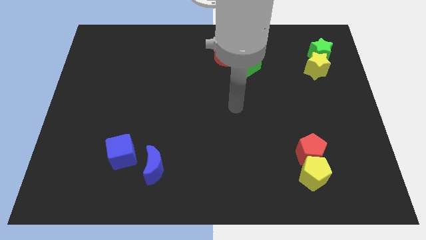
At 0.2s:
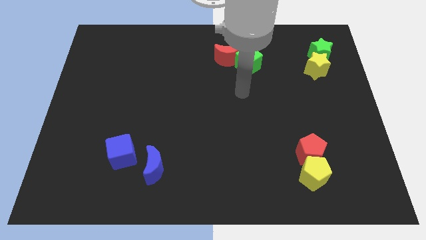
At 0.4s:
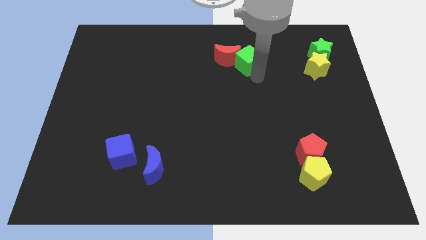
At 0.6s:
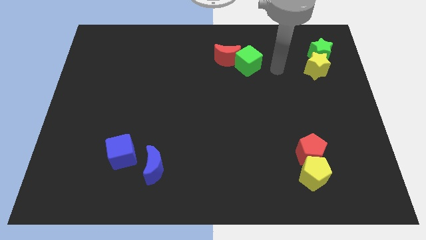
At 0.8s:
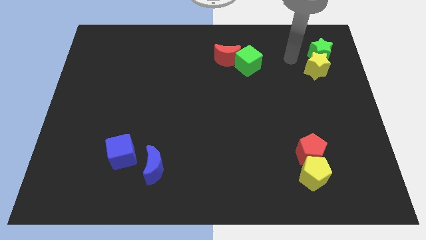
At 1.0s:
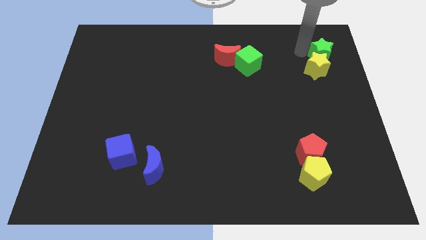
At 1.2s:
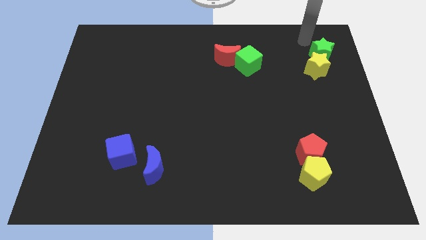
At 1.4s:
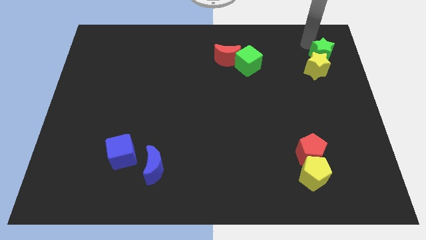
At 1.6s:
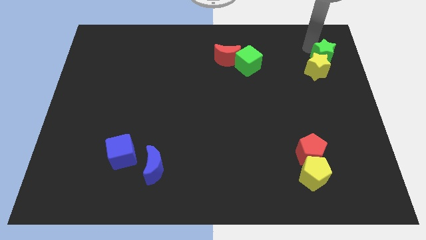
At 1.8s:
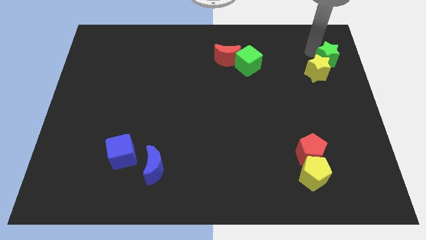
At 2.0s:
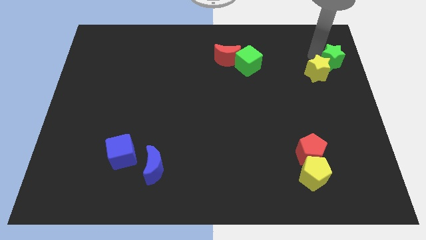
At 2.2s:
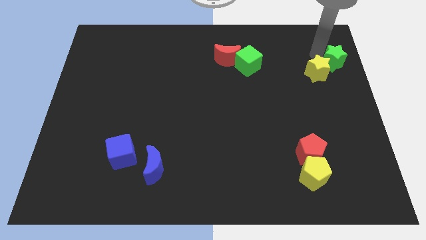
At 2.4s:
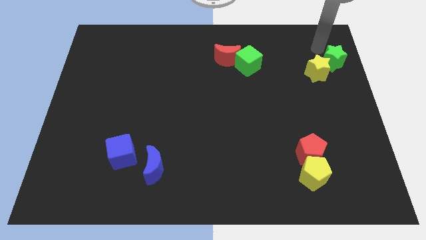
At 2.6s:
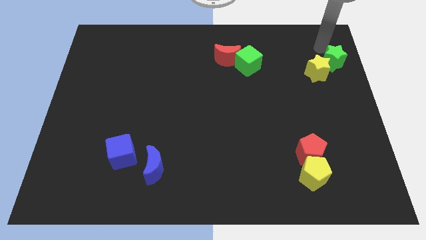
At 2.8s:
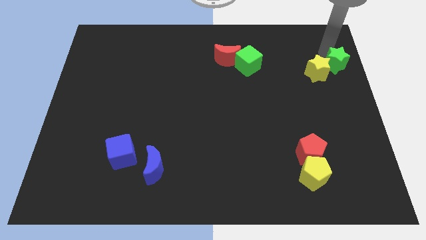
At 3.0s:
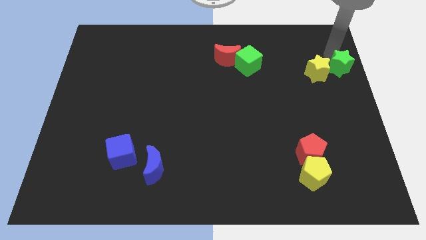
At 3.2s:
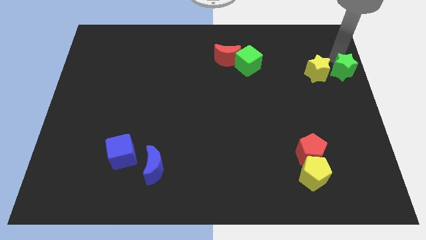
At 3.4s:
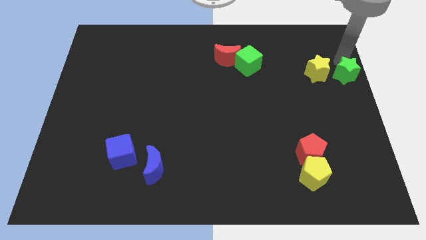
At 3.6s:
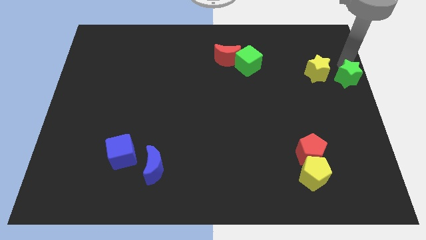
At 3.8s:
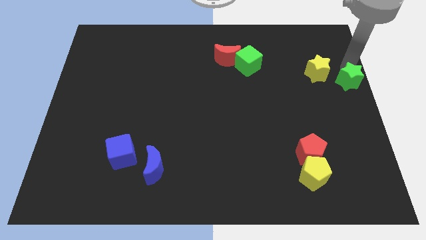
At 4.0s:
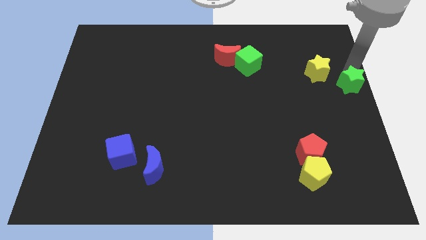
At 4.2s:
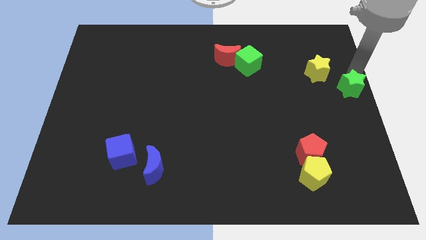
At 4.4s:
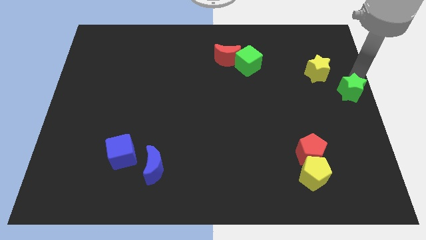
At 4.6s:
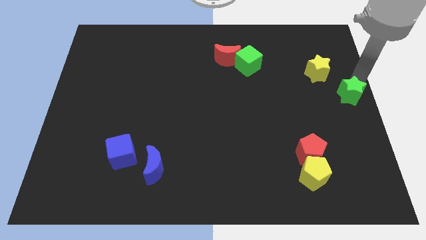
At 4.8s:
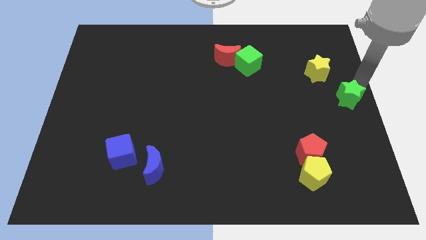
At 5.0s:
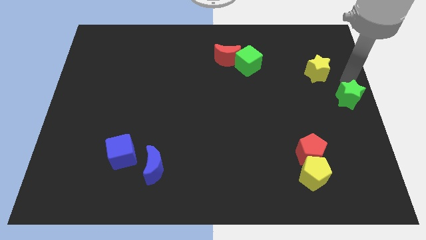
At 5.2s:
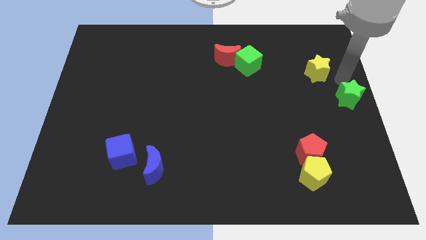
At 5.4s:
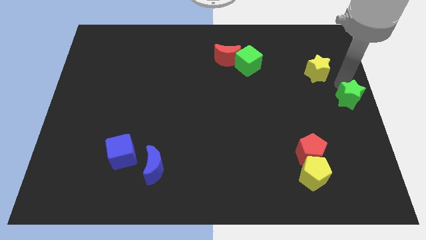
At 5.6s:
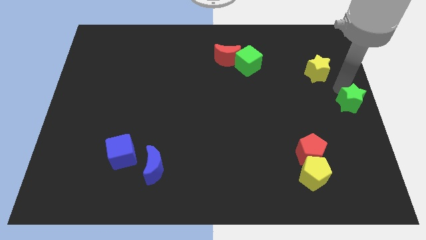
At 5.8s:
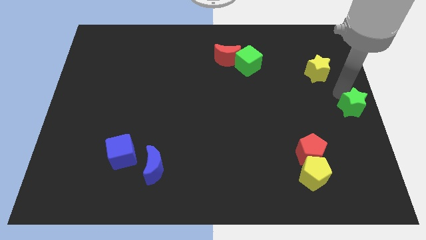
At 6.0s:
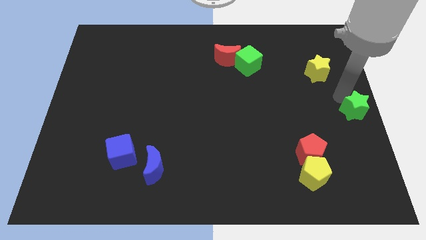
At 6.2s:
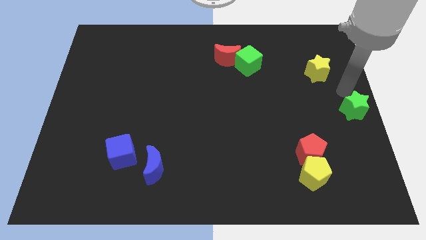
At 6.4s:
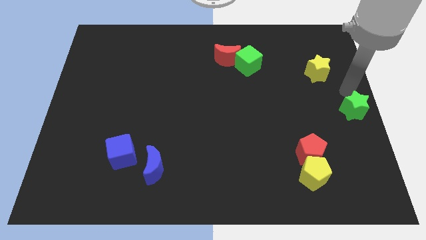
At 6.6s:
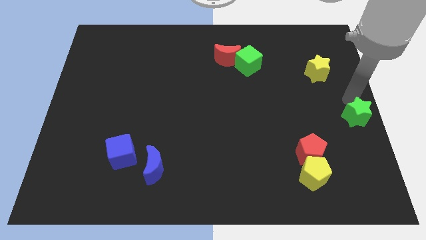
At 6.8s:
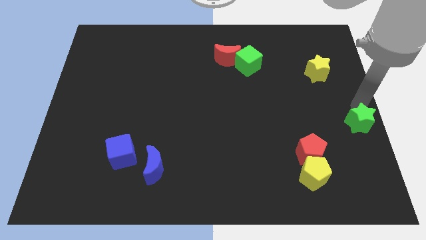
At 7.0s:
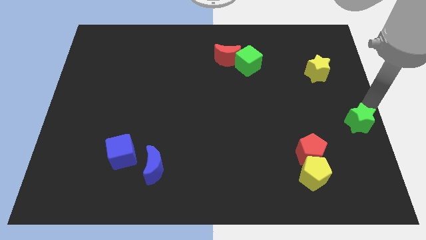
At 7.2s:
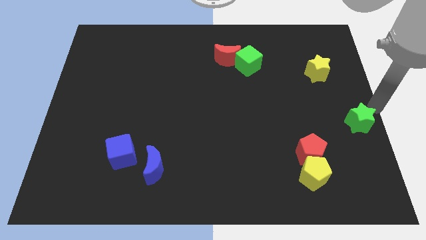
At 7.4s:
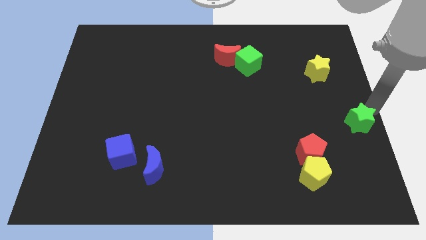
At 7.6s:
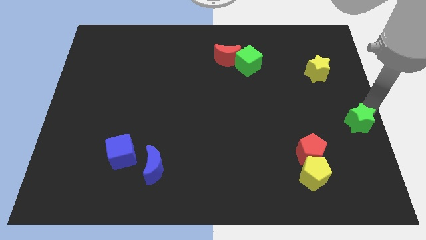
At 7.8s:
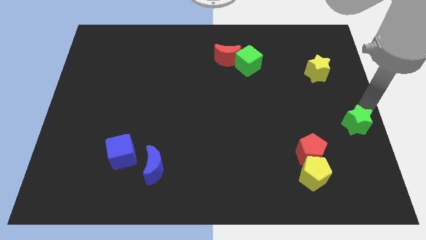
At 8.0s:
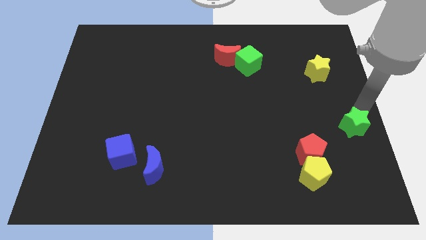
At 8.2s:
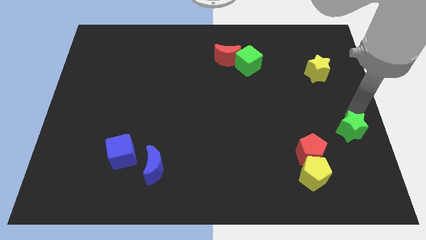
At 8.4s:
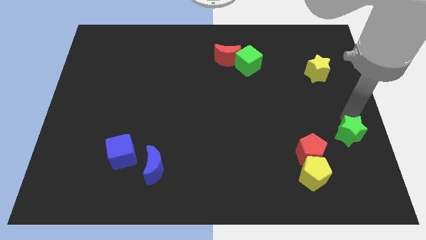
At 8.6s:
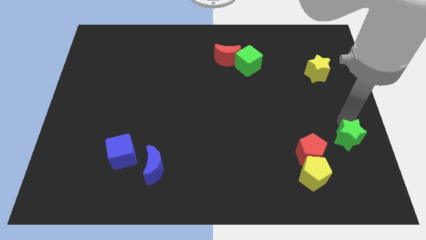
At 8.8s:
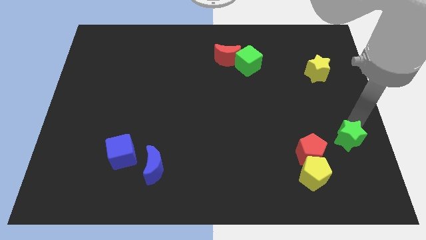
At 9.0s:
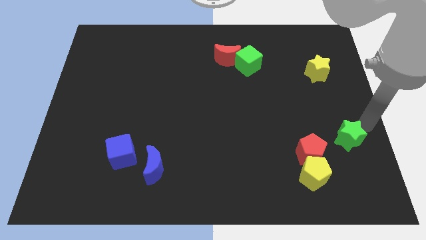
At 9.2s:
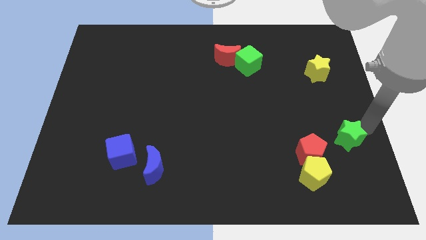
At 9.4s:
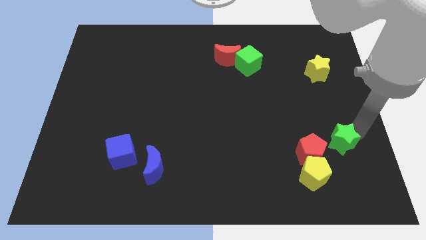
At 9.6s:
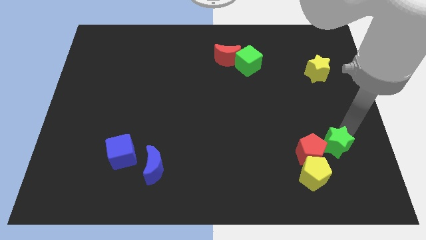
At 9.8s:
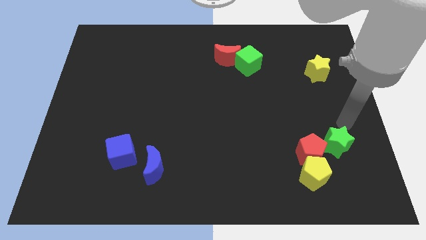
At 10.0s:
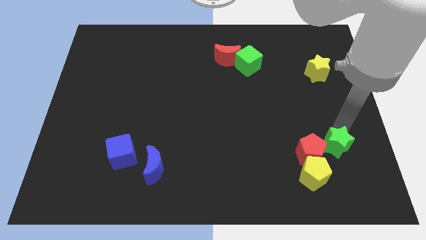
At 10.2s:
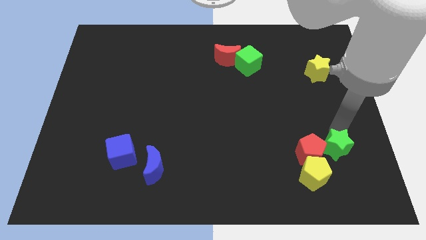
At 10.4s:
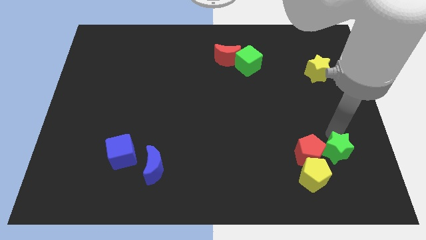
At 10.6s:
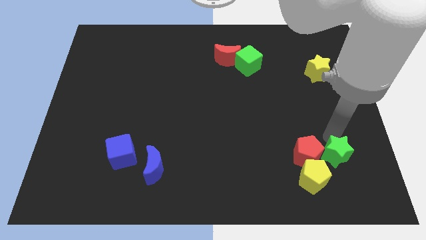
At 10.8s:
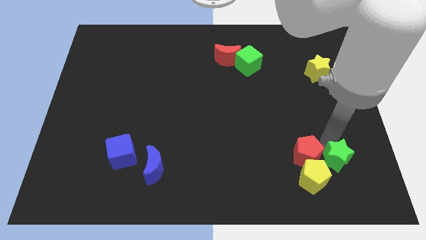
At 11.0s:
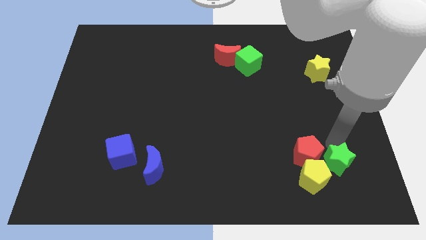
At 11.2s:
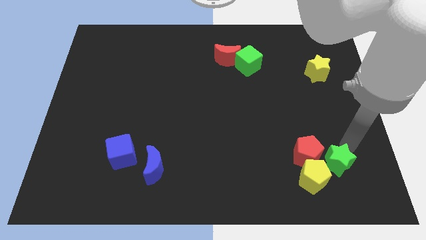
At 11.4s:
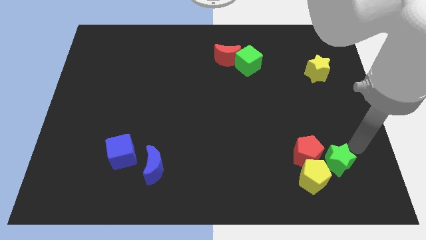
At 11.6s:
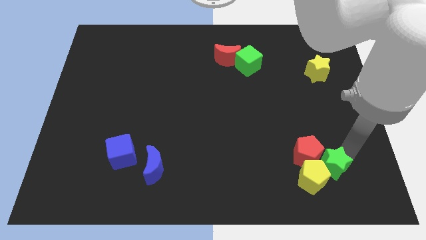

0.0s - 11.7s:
put the green star close to the yellow pentagon
